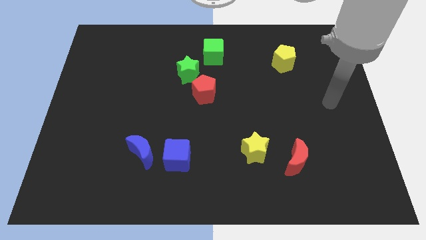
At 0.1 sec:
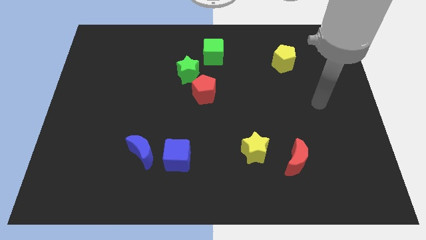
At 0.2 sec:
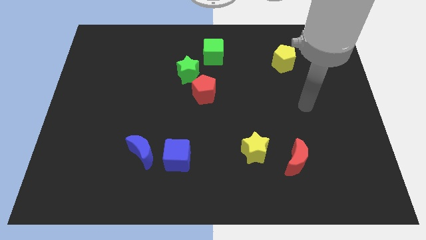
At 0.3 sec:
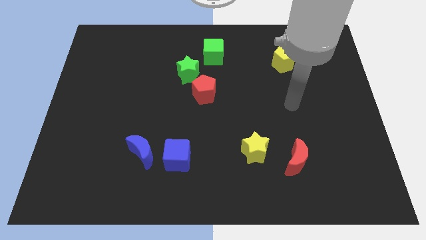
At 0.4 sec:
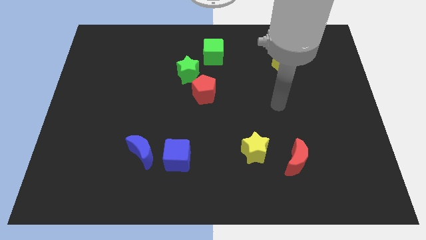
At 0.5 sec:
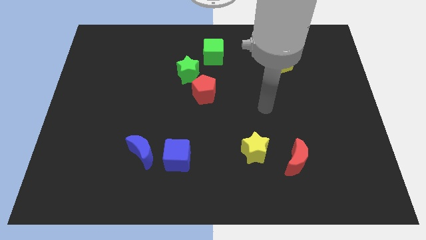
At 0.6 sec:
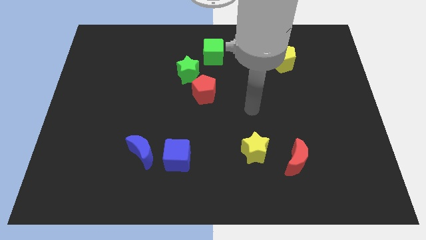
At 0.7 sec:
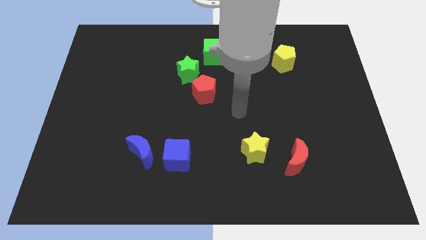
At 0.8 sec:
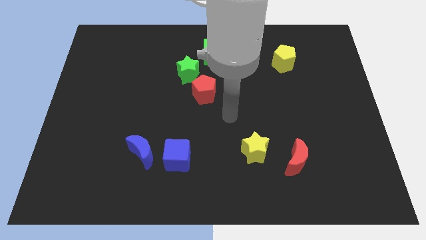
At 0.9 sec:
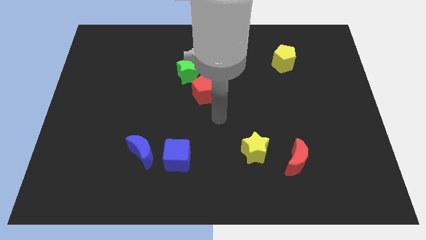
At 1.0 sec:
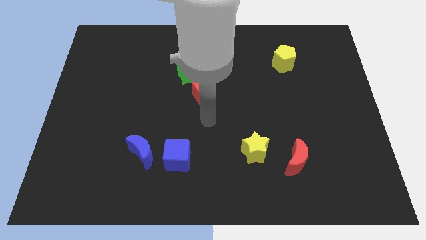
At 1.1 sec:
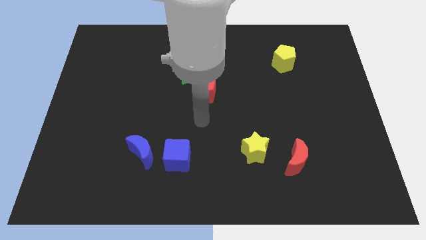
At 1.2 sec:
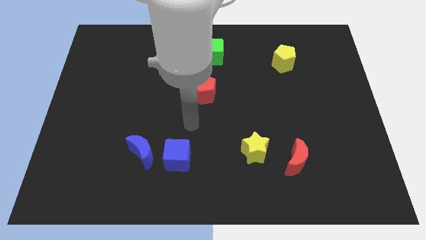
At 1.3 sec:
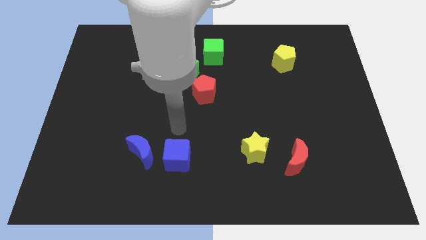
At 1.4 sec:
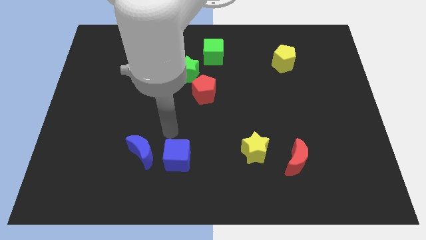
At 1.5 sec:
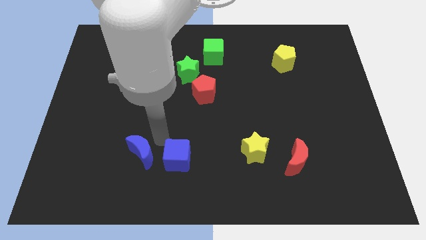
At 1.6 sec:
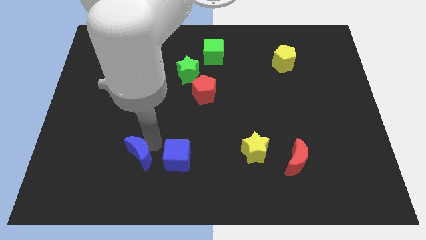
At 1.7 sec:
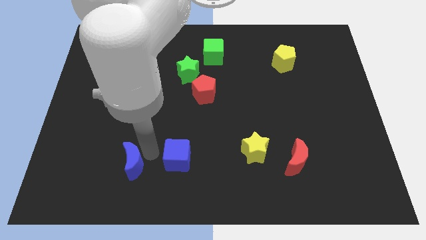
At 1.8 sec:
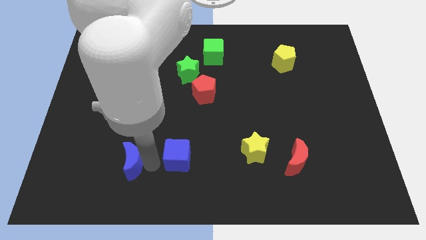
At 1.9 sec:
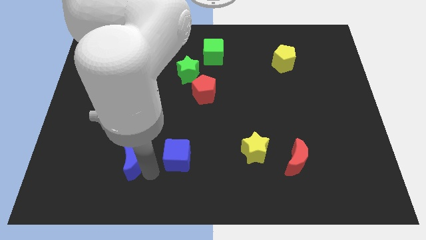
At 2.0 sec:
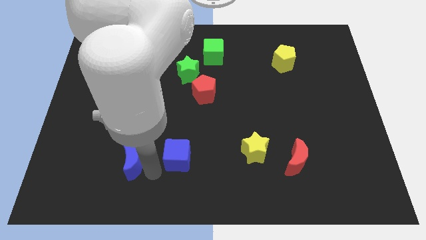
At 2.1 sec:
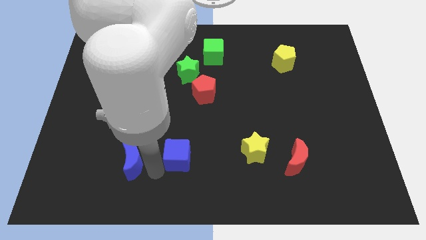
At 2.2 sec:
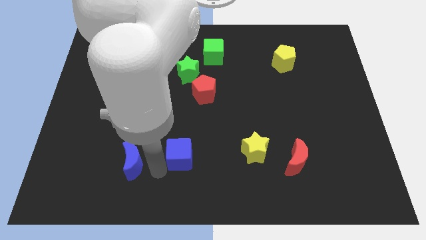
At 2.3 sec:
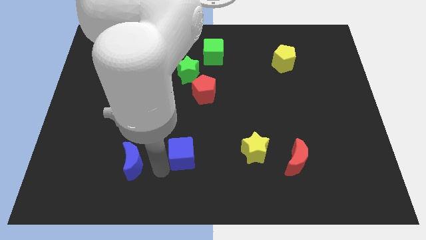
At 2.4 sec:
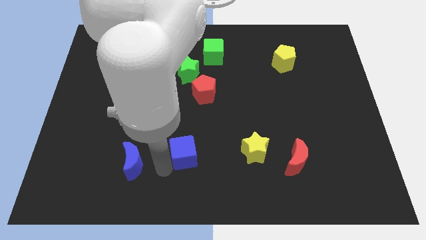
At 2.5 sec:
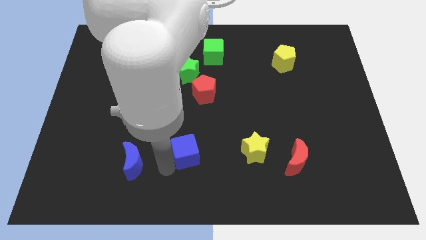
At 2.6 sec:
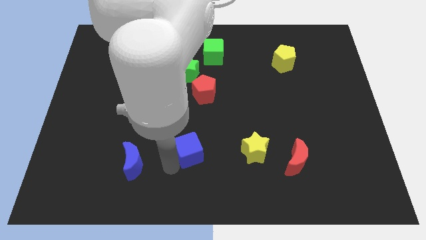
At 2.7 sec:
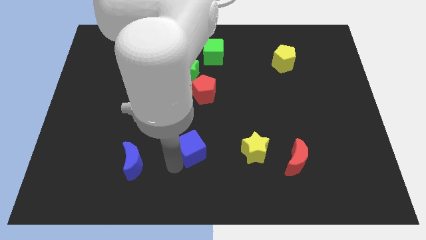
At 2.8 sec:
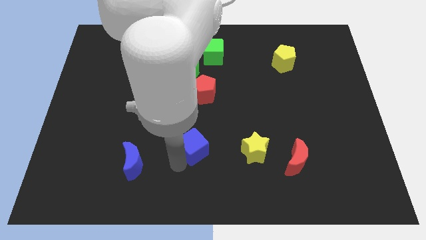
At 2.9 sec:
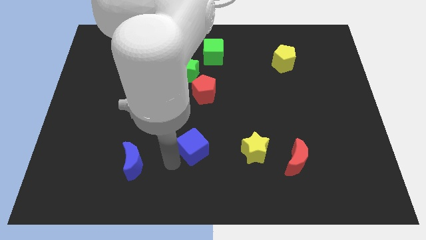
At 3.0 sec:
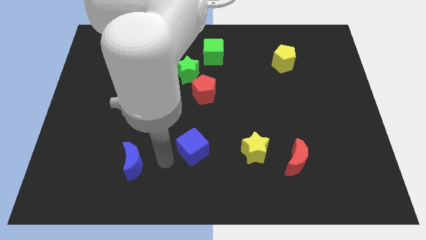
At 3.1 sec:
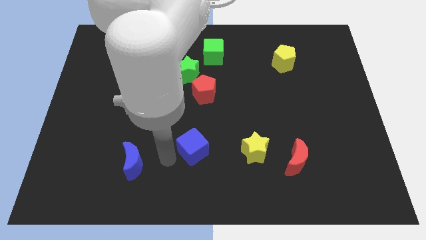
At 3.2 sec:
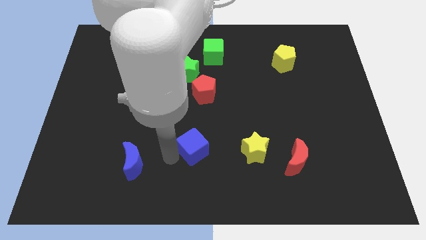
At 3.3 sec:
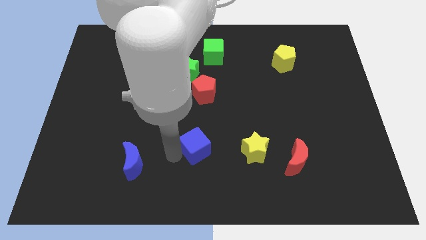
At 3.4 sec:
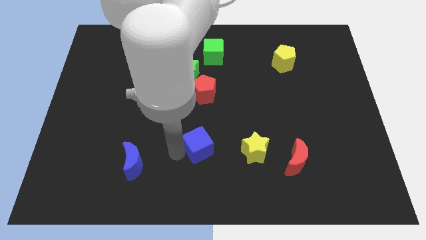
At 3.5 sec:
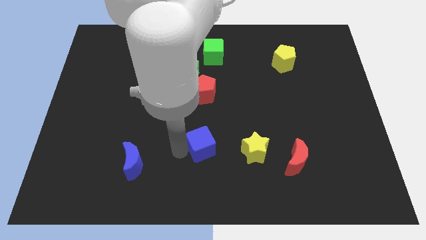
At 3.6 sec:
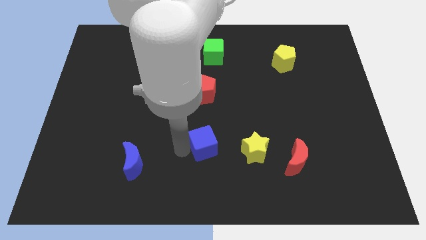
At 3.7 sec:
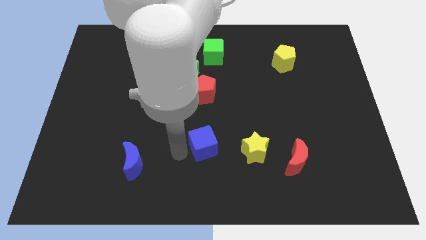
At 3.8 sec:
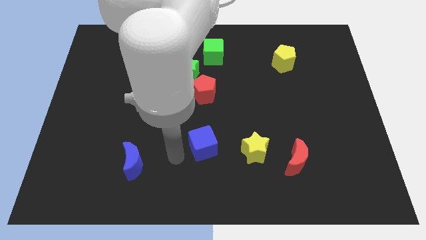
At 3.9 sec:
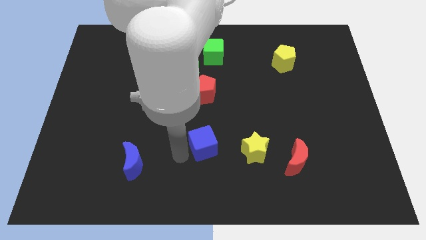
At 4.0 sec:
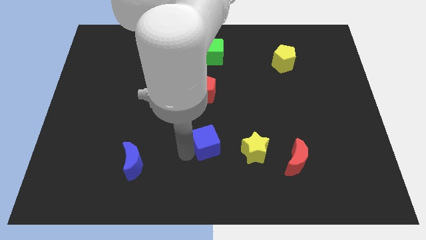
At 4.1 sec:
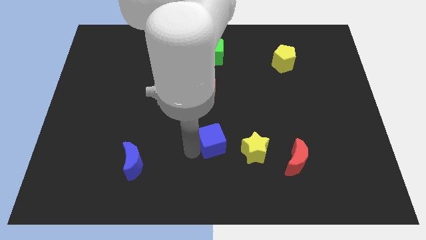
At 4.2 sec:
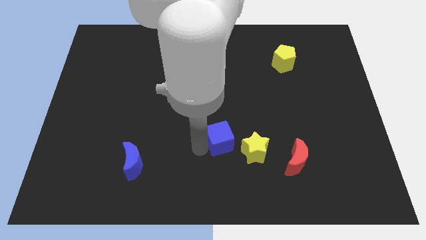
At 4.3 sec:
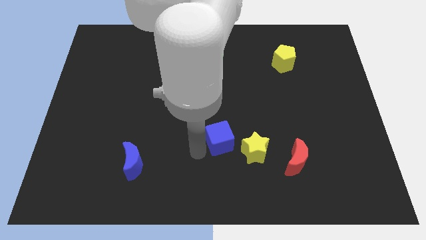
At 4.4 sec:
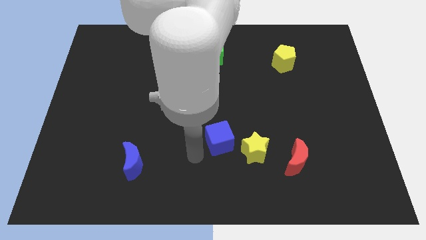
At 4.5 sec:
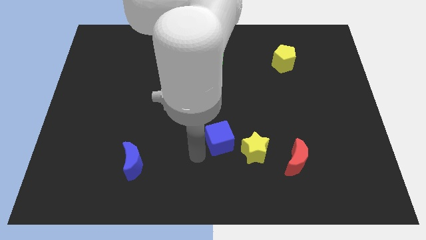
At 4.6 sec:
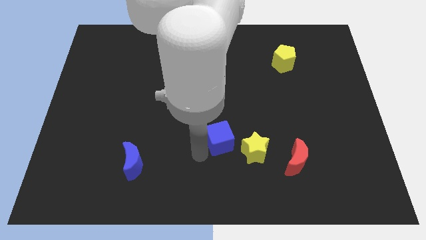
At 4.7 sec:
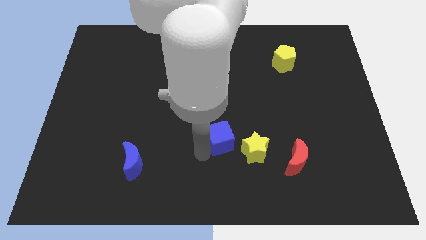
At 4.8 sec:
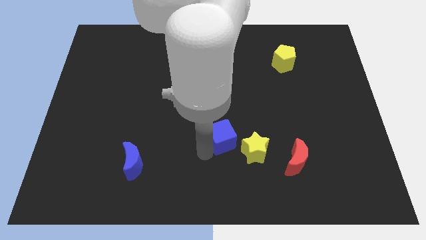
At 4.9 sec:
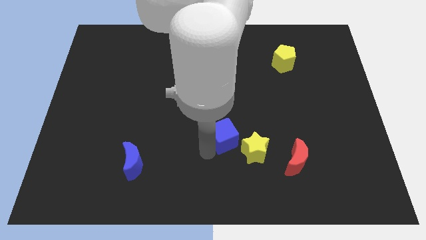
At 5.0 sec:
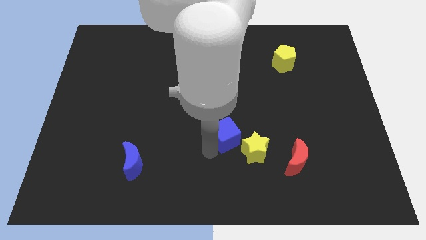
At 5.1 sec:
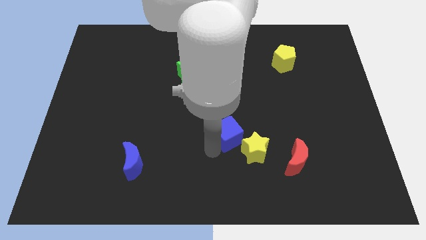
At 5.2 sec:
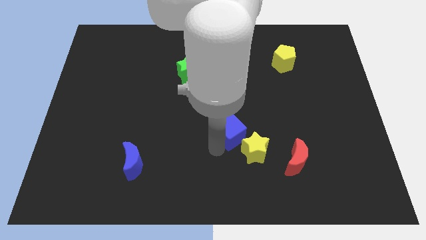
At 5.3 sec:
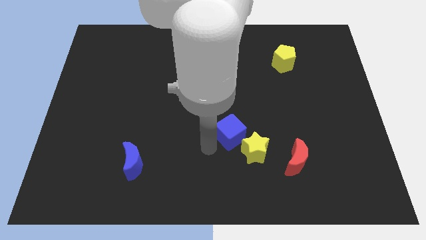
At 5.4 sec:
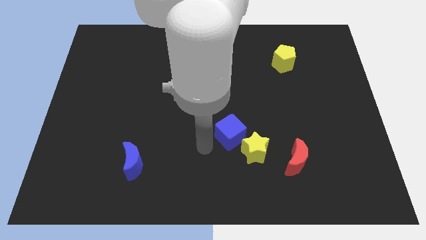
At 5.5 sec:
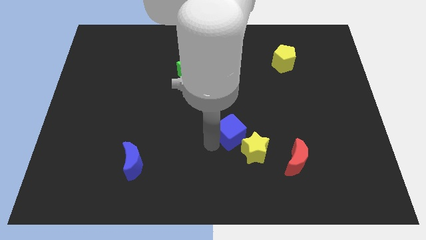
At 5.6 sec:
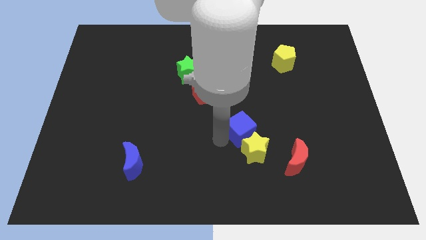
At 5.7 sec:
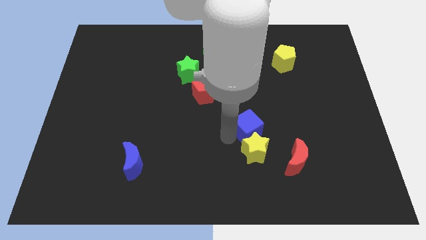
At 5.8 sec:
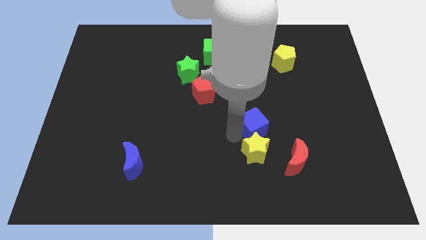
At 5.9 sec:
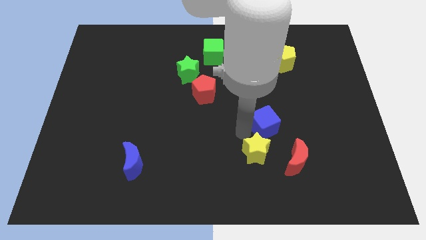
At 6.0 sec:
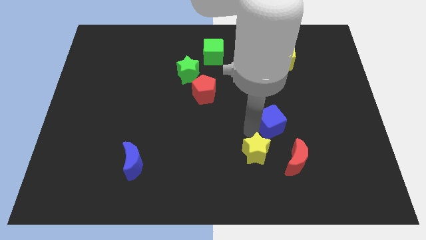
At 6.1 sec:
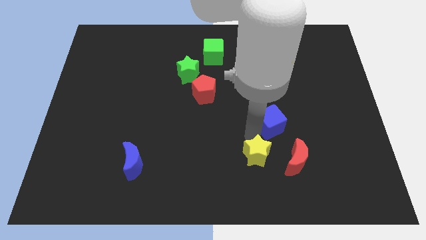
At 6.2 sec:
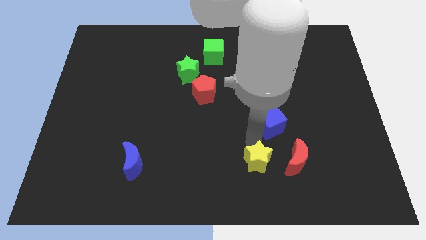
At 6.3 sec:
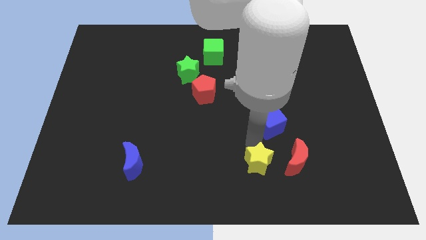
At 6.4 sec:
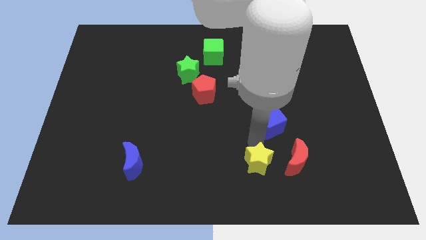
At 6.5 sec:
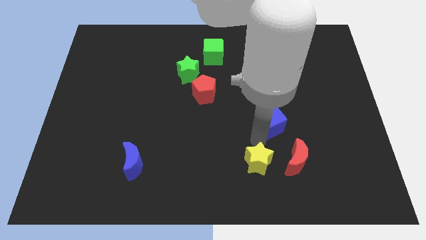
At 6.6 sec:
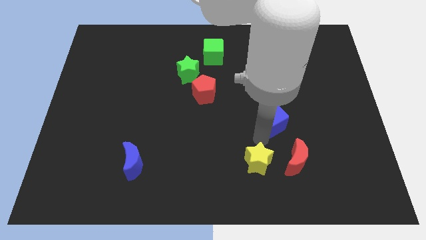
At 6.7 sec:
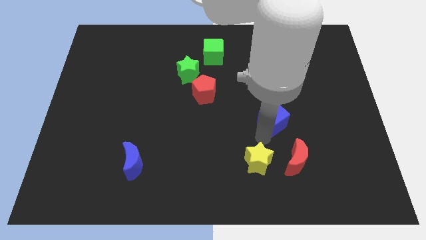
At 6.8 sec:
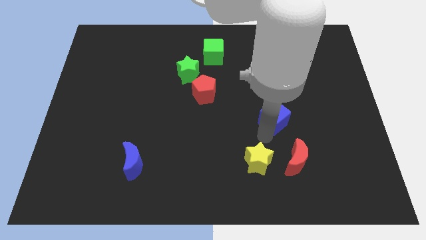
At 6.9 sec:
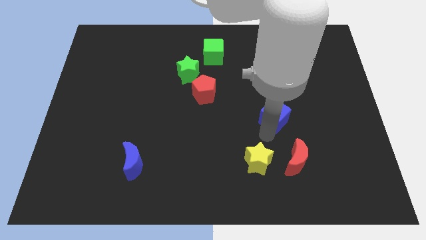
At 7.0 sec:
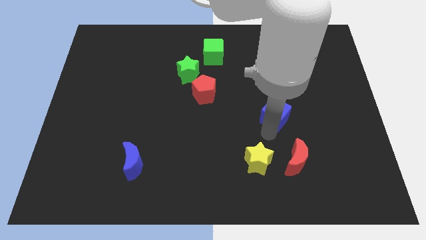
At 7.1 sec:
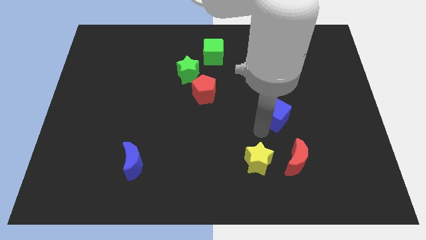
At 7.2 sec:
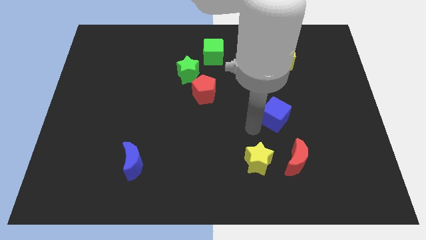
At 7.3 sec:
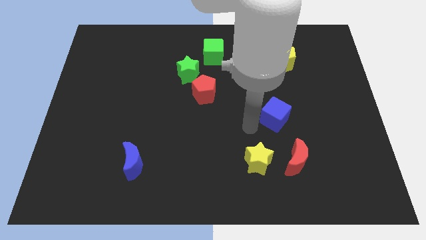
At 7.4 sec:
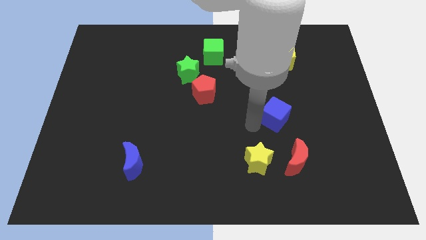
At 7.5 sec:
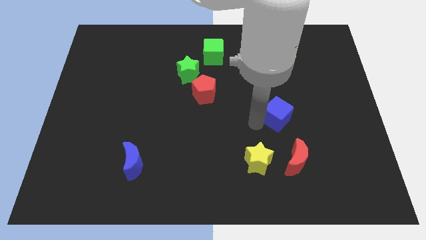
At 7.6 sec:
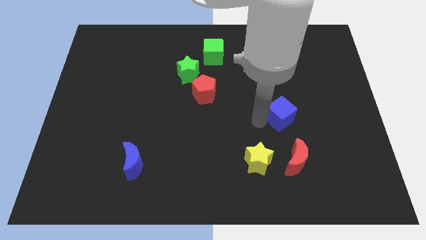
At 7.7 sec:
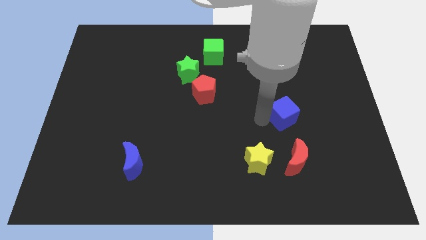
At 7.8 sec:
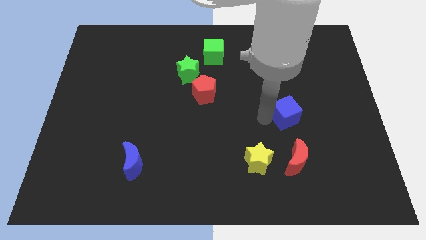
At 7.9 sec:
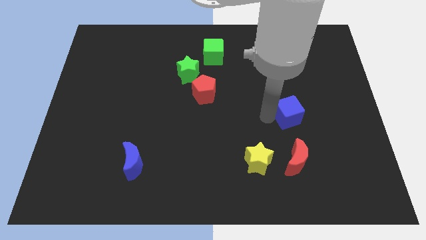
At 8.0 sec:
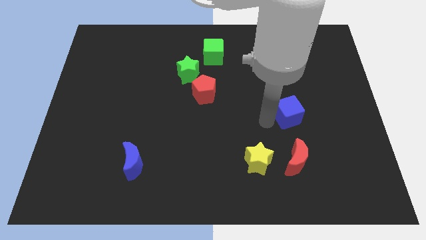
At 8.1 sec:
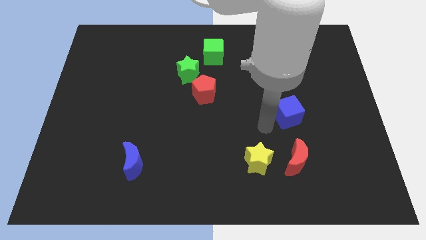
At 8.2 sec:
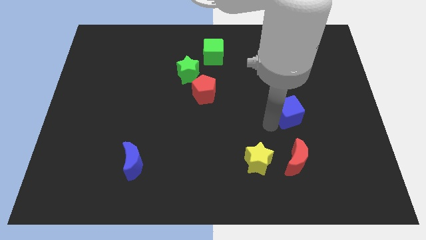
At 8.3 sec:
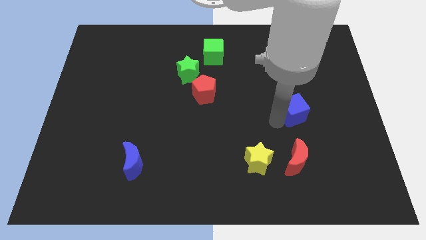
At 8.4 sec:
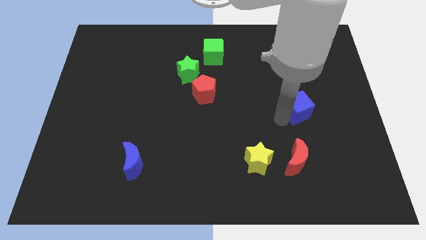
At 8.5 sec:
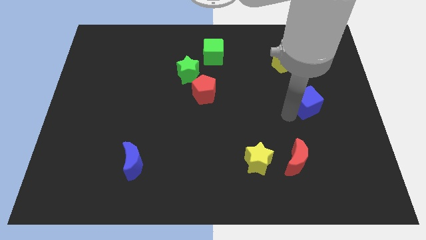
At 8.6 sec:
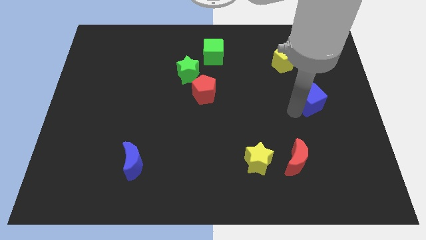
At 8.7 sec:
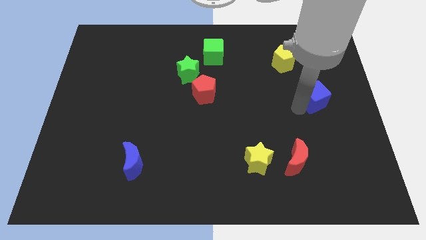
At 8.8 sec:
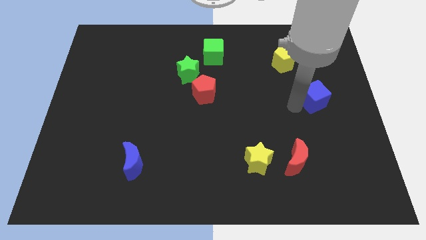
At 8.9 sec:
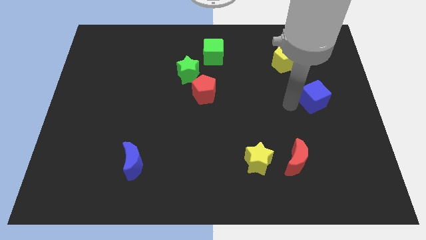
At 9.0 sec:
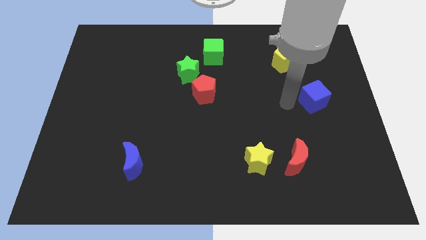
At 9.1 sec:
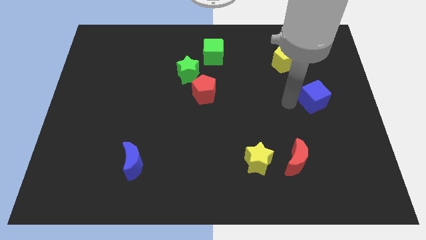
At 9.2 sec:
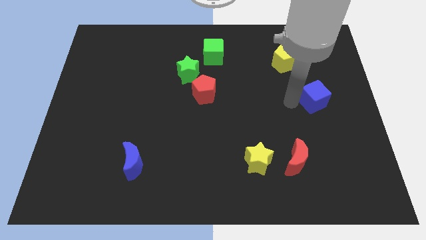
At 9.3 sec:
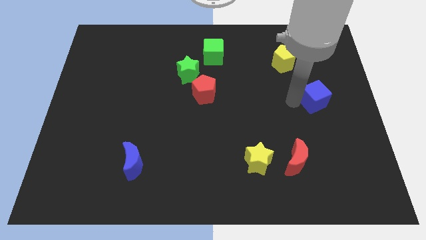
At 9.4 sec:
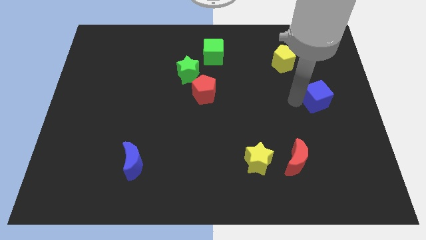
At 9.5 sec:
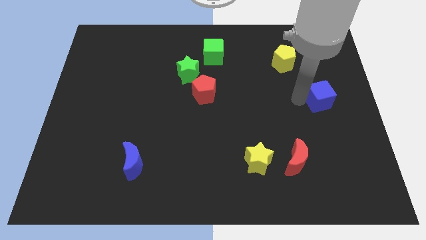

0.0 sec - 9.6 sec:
put the blue cube to the right side
